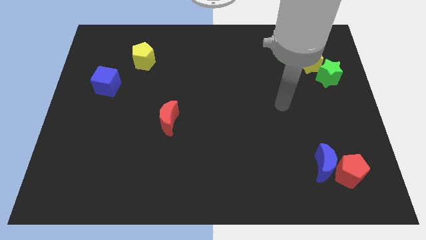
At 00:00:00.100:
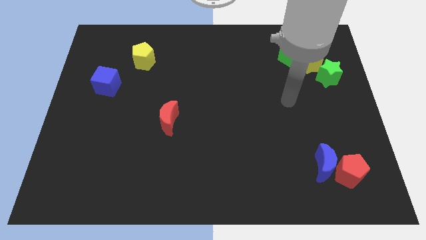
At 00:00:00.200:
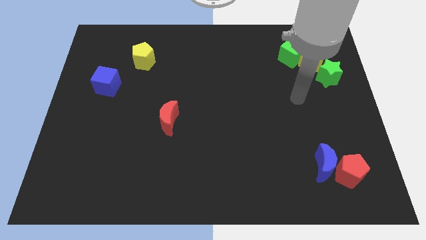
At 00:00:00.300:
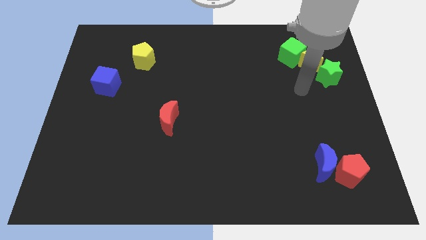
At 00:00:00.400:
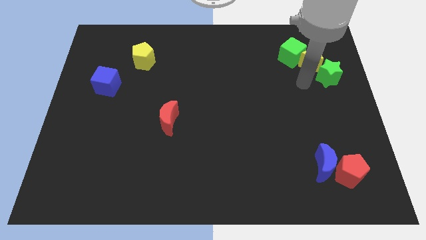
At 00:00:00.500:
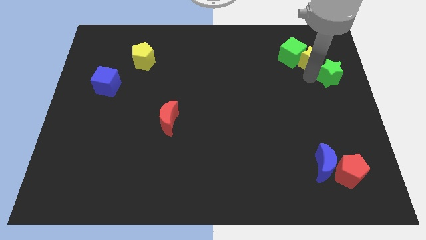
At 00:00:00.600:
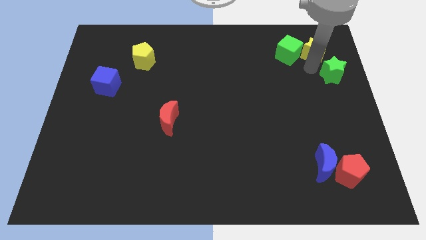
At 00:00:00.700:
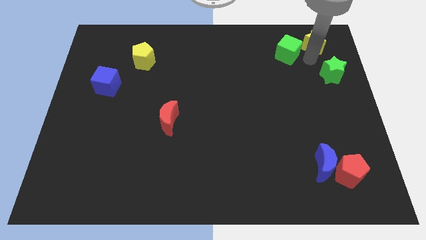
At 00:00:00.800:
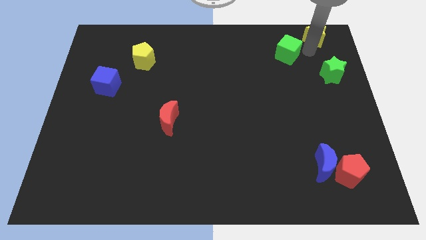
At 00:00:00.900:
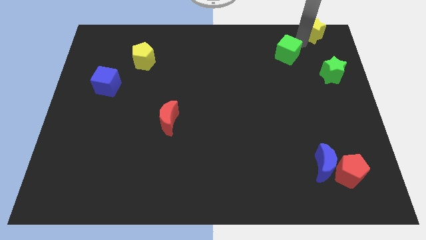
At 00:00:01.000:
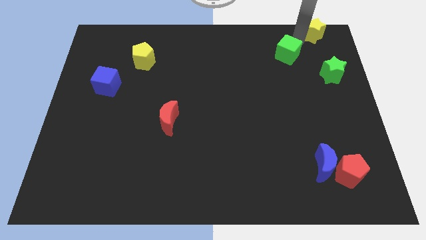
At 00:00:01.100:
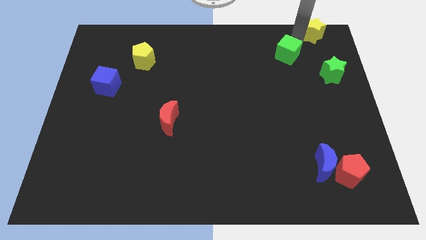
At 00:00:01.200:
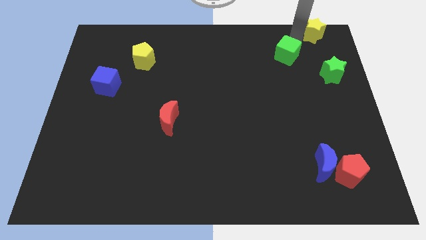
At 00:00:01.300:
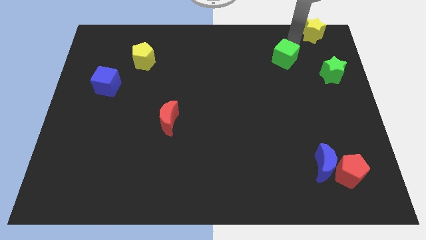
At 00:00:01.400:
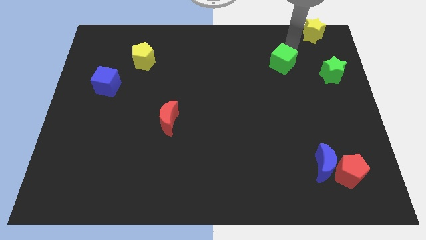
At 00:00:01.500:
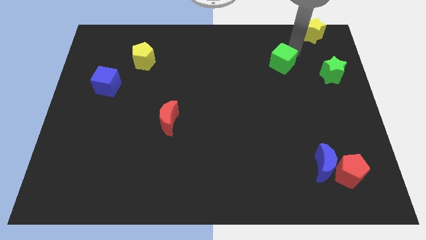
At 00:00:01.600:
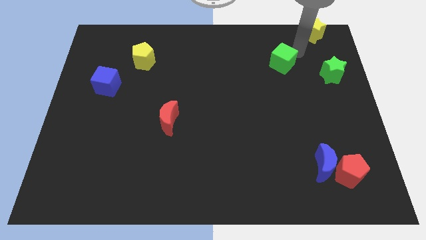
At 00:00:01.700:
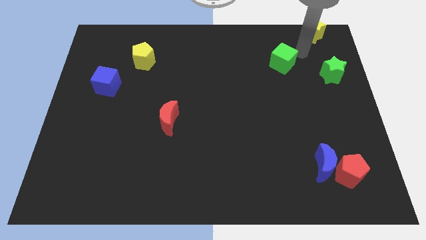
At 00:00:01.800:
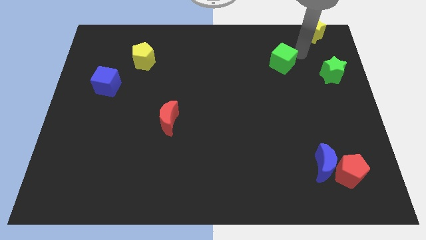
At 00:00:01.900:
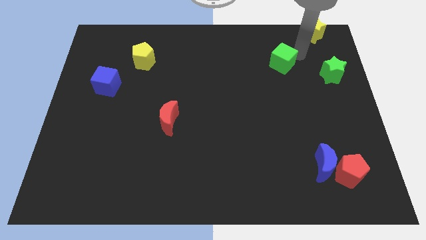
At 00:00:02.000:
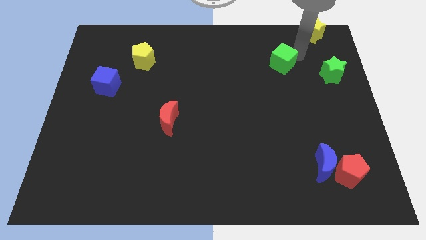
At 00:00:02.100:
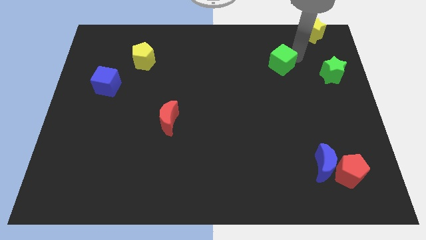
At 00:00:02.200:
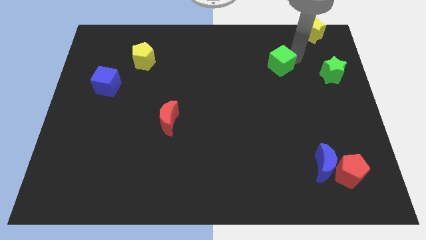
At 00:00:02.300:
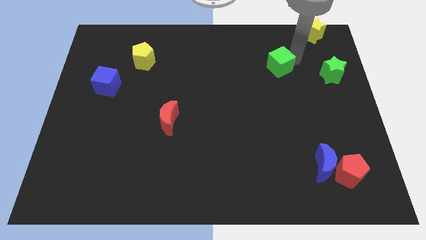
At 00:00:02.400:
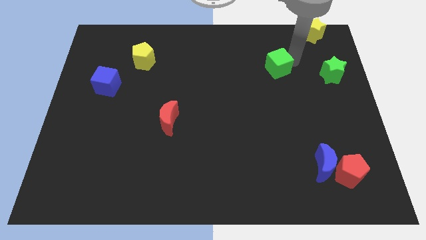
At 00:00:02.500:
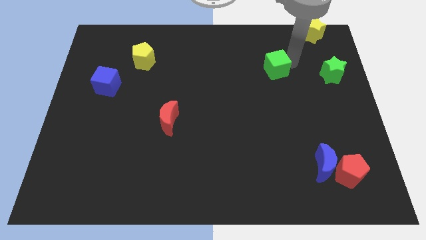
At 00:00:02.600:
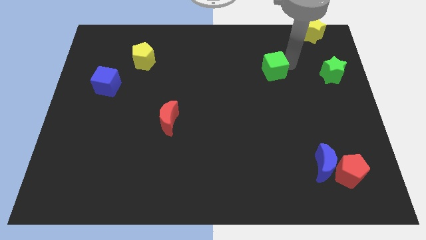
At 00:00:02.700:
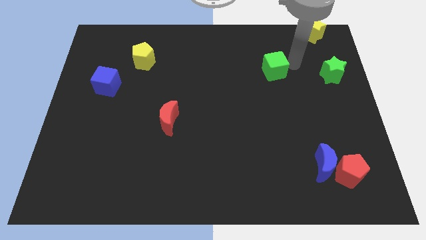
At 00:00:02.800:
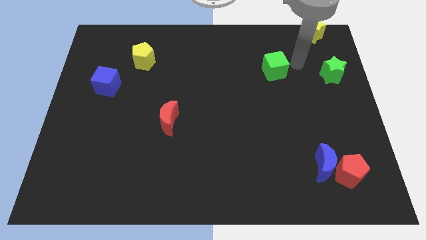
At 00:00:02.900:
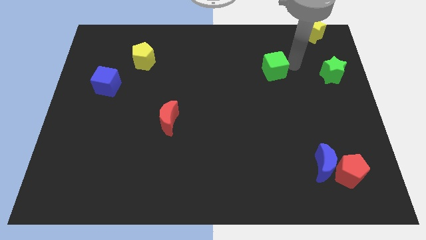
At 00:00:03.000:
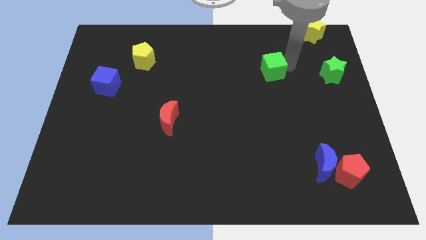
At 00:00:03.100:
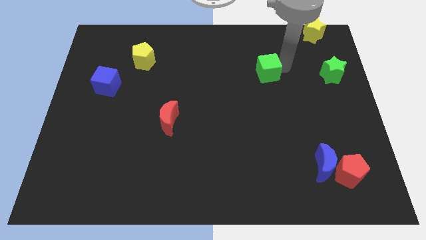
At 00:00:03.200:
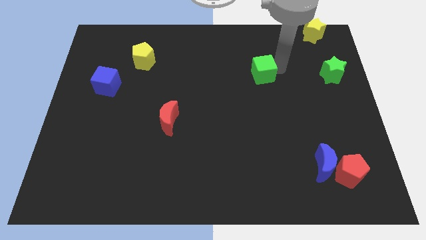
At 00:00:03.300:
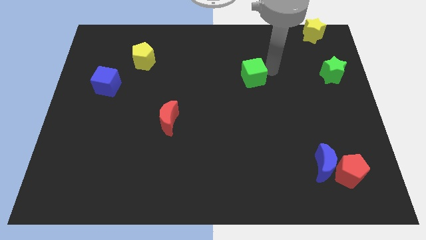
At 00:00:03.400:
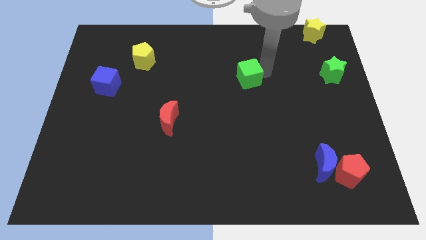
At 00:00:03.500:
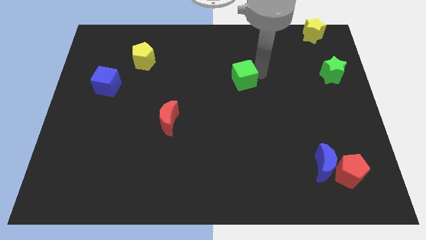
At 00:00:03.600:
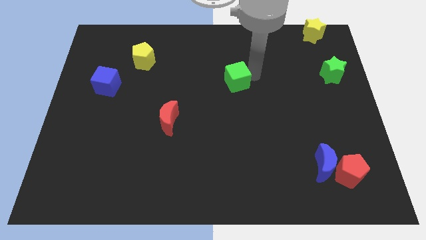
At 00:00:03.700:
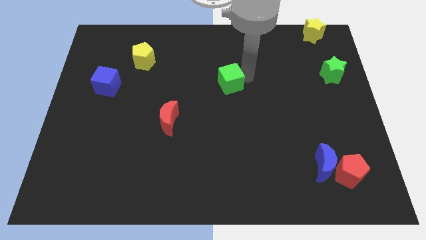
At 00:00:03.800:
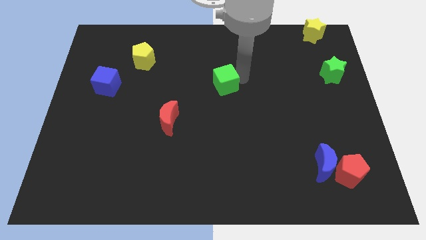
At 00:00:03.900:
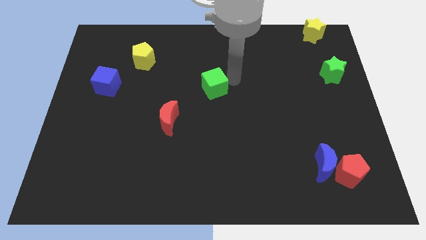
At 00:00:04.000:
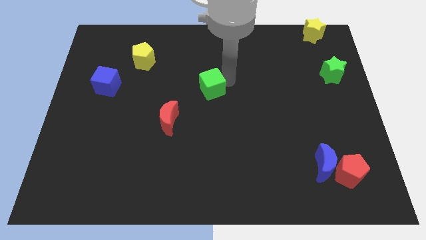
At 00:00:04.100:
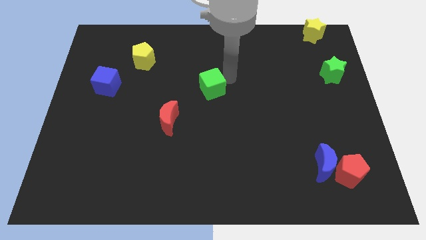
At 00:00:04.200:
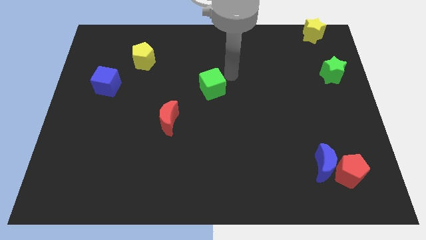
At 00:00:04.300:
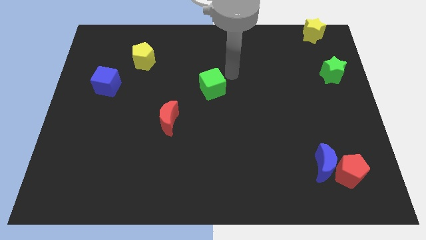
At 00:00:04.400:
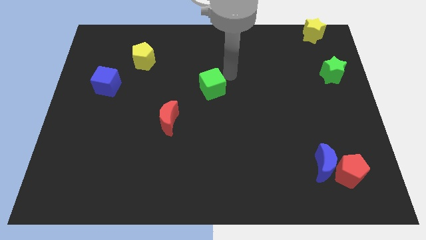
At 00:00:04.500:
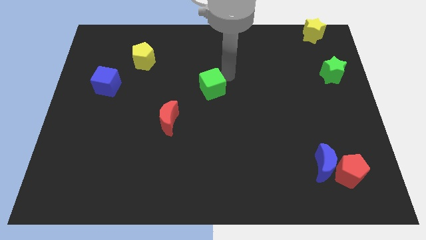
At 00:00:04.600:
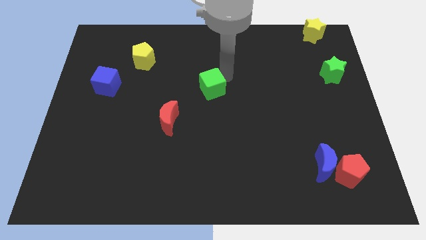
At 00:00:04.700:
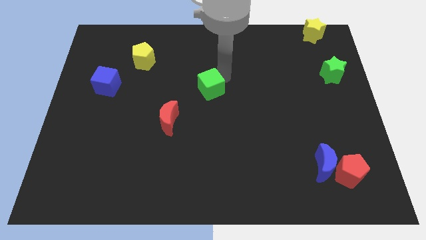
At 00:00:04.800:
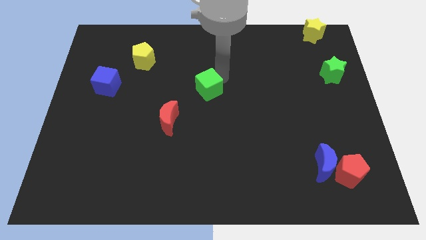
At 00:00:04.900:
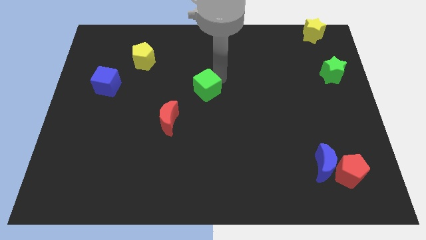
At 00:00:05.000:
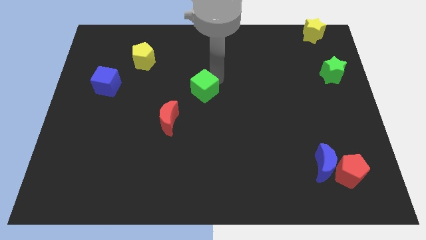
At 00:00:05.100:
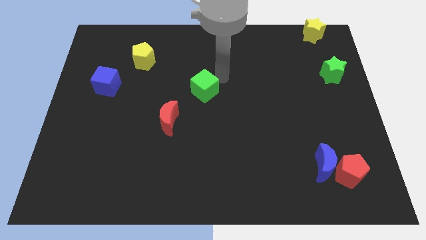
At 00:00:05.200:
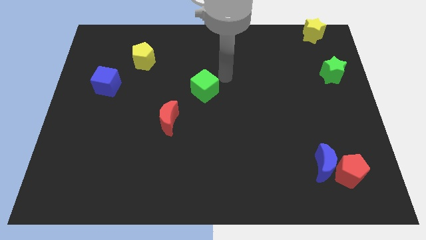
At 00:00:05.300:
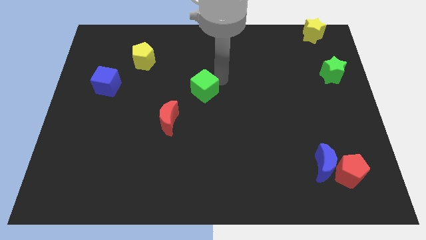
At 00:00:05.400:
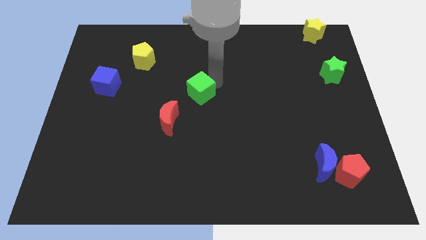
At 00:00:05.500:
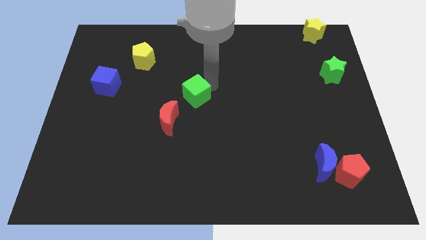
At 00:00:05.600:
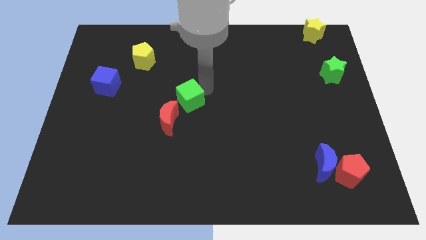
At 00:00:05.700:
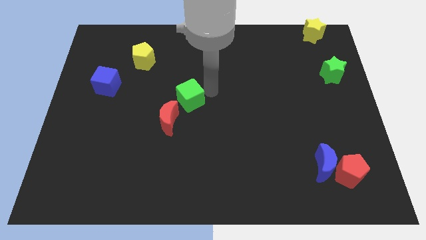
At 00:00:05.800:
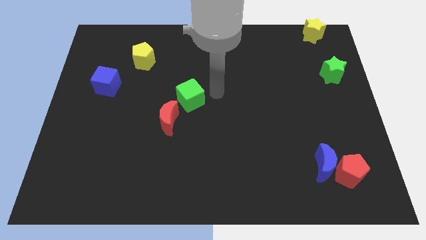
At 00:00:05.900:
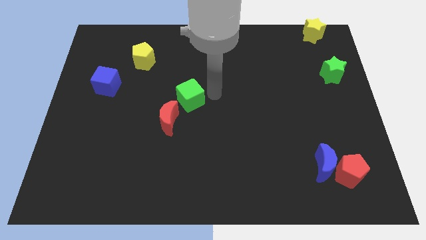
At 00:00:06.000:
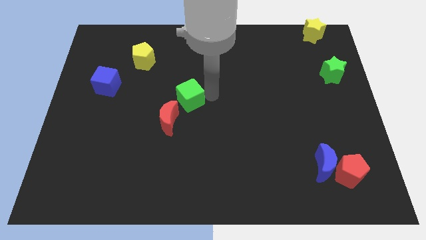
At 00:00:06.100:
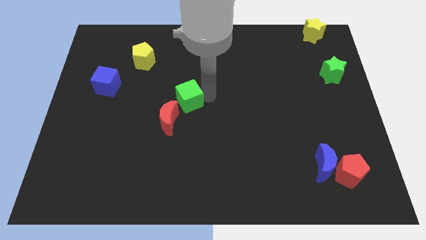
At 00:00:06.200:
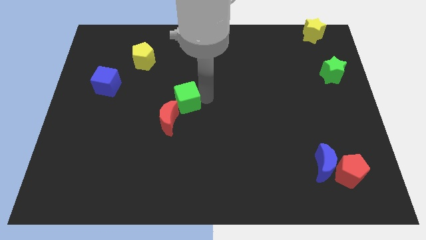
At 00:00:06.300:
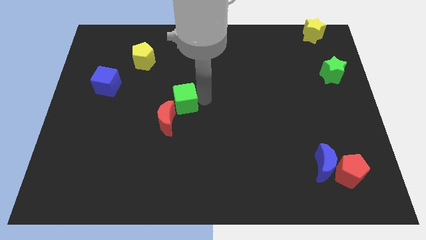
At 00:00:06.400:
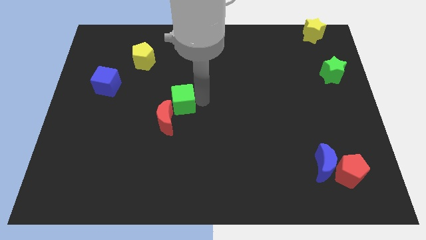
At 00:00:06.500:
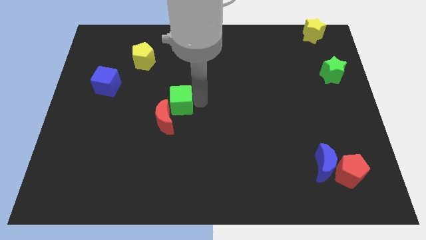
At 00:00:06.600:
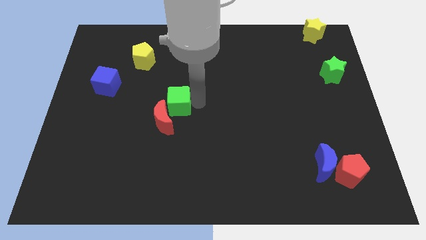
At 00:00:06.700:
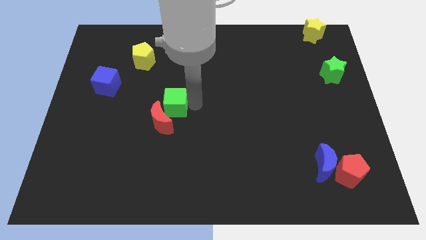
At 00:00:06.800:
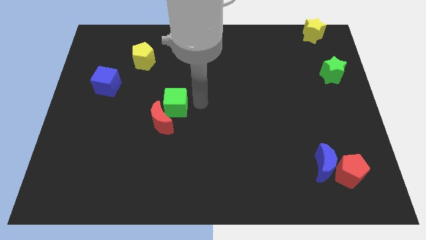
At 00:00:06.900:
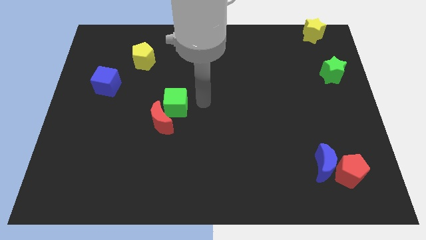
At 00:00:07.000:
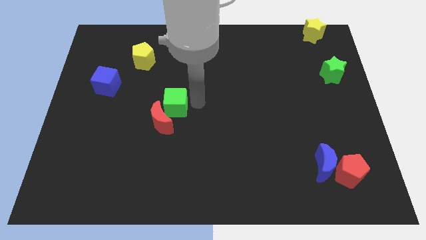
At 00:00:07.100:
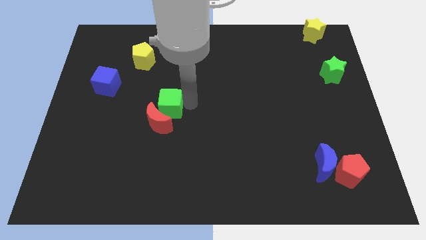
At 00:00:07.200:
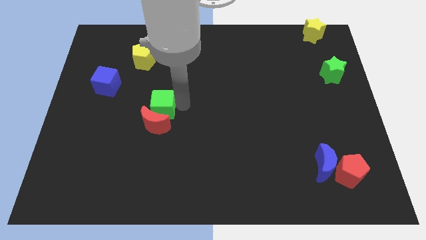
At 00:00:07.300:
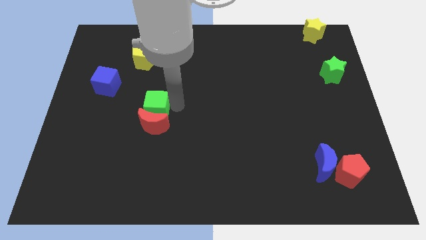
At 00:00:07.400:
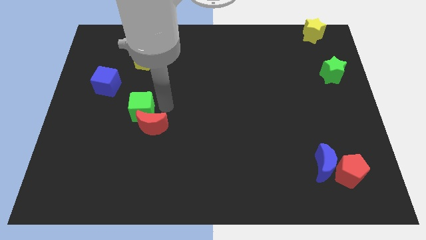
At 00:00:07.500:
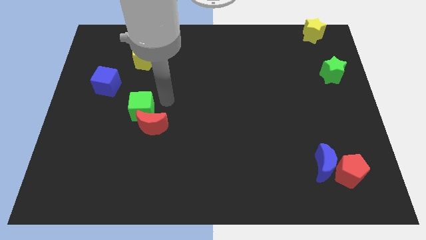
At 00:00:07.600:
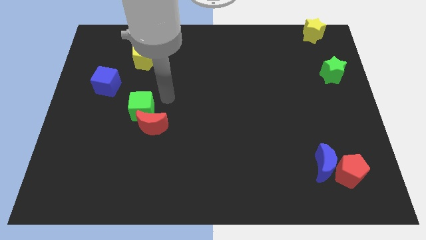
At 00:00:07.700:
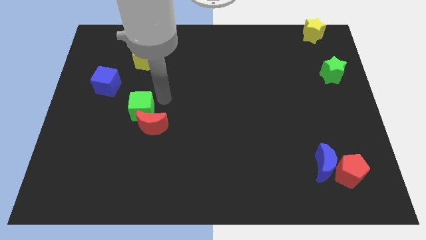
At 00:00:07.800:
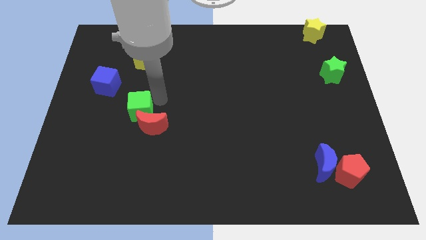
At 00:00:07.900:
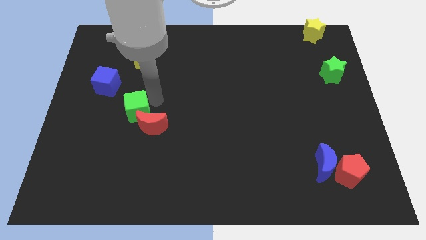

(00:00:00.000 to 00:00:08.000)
slide the green cube just left of the red moon
